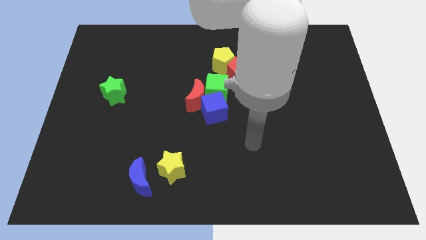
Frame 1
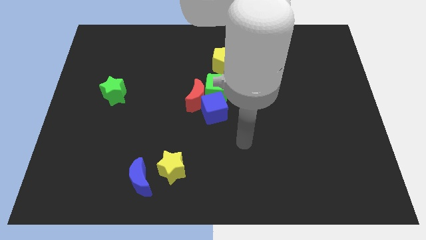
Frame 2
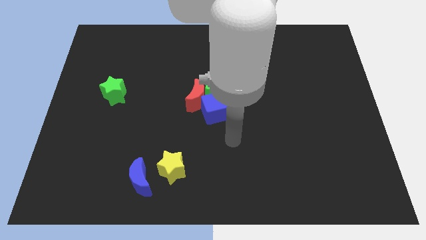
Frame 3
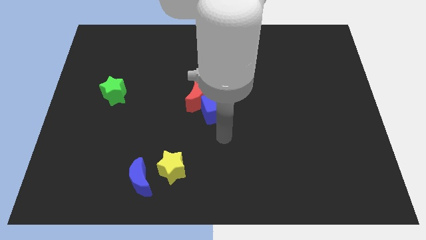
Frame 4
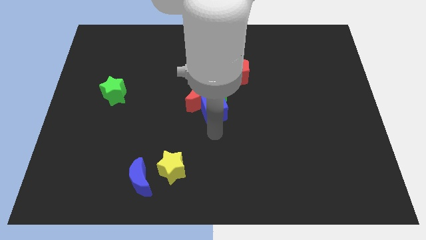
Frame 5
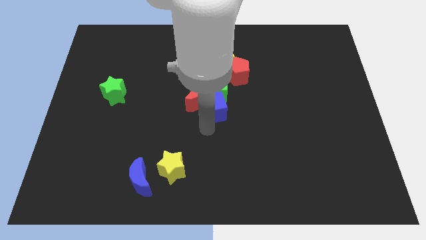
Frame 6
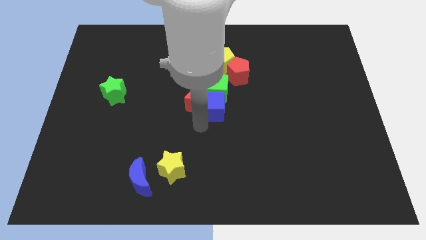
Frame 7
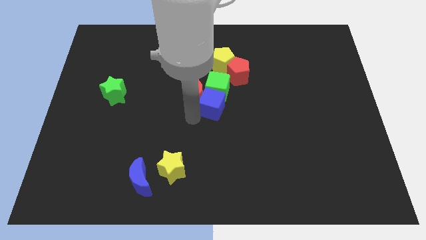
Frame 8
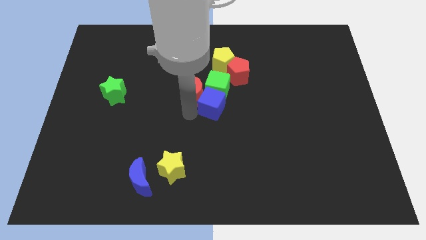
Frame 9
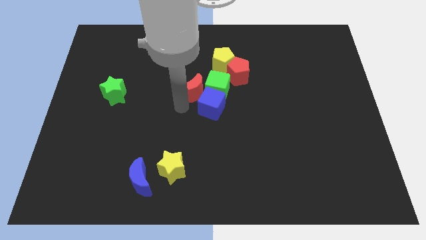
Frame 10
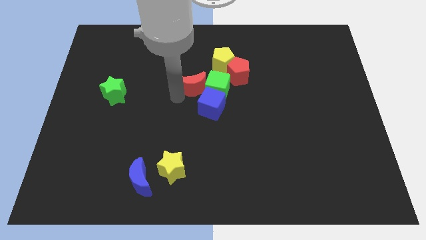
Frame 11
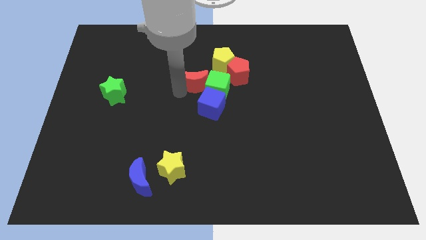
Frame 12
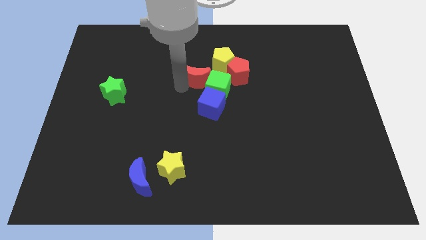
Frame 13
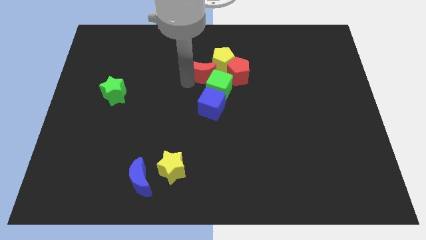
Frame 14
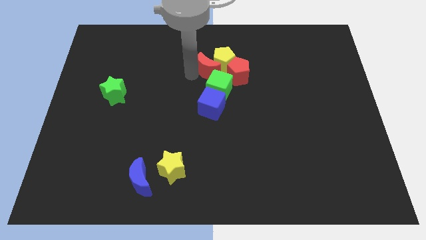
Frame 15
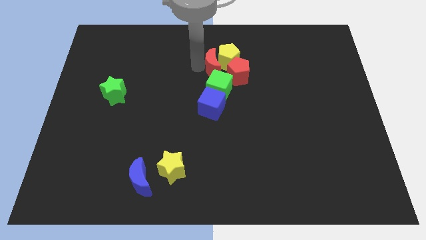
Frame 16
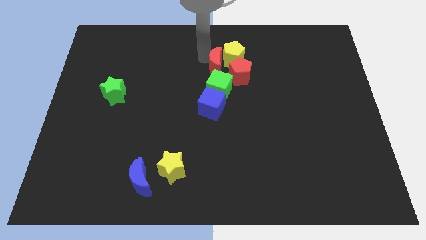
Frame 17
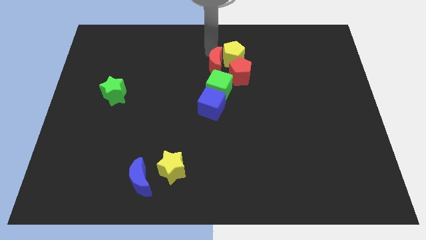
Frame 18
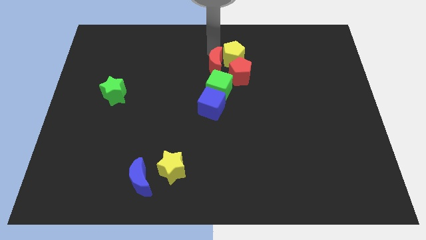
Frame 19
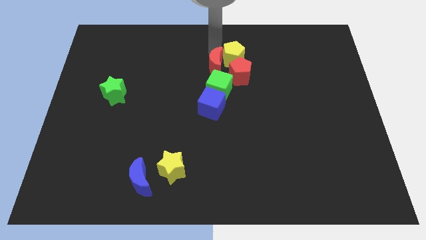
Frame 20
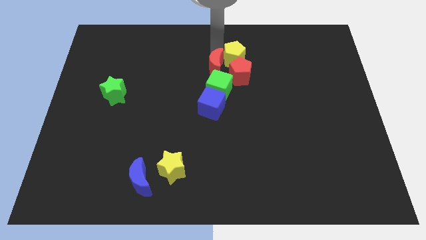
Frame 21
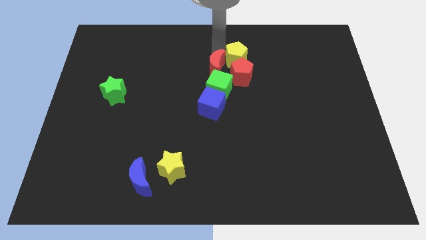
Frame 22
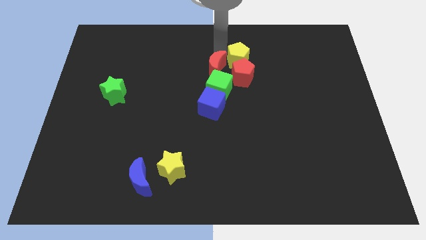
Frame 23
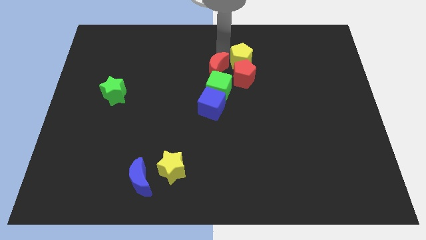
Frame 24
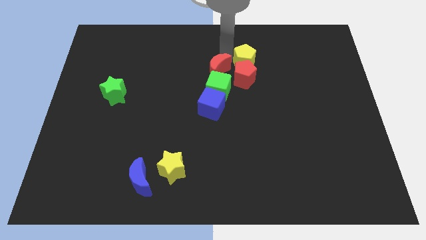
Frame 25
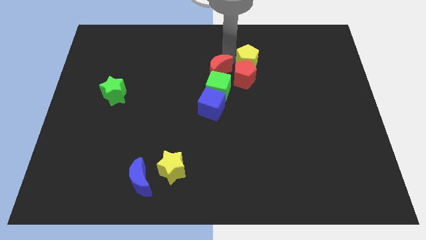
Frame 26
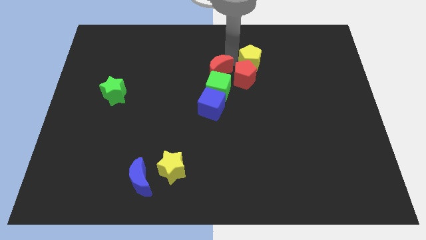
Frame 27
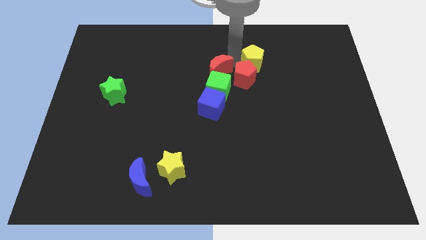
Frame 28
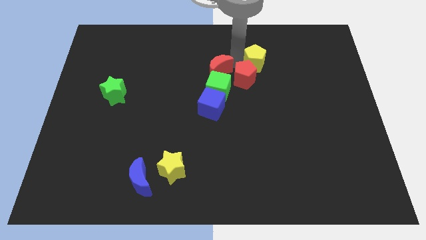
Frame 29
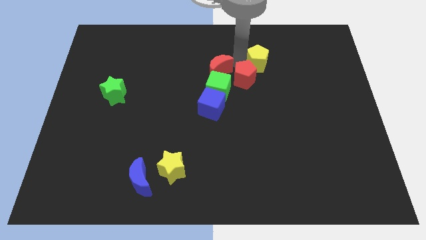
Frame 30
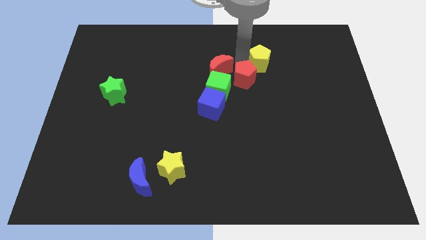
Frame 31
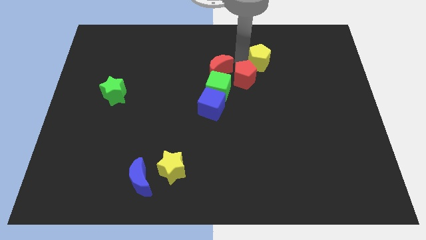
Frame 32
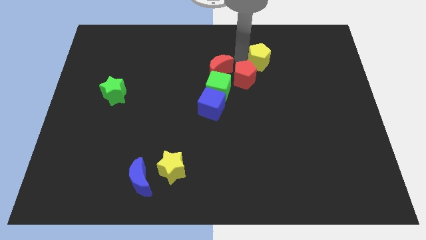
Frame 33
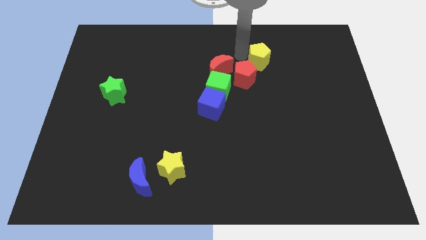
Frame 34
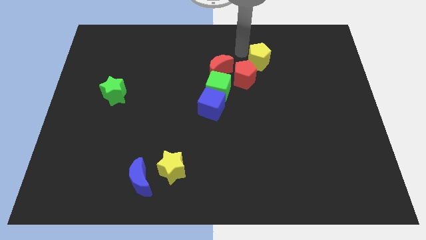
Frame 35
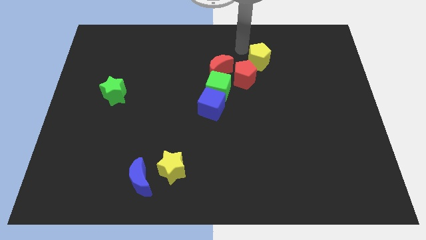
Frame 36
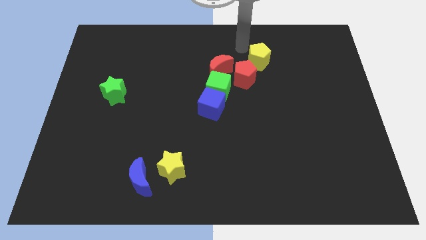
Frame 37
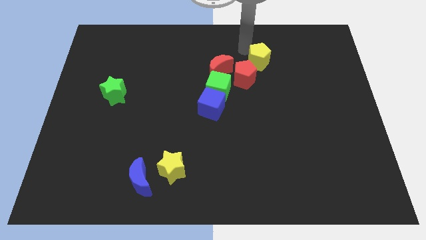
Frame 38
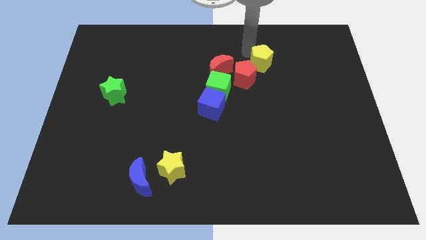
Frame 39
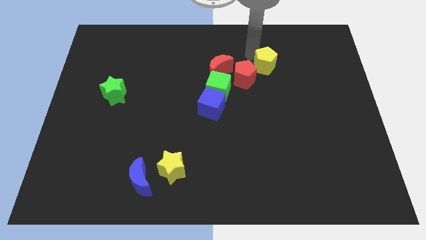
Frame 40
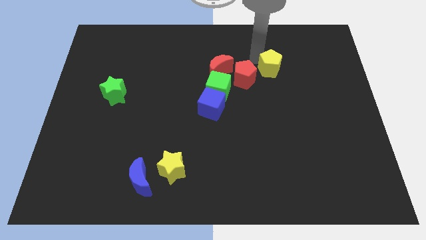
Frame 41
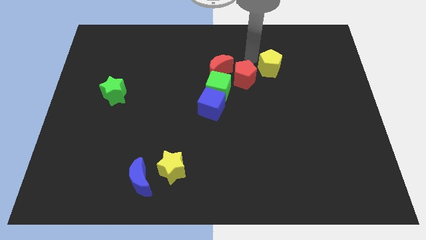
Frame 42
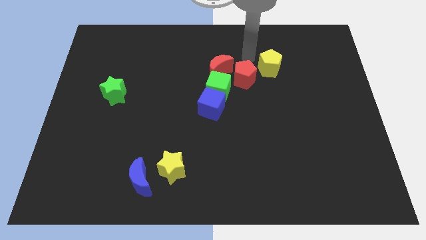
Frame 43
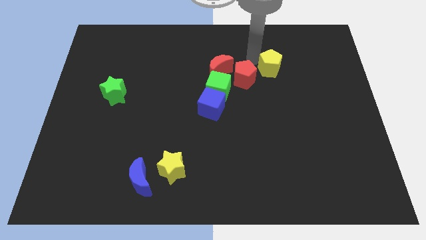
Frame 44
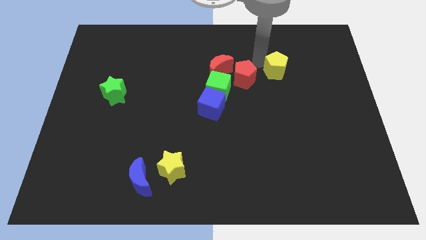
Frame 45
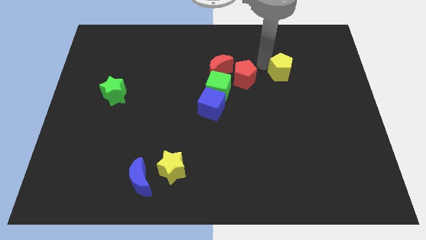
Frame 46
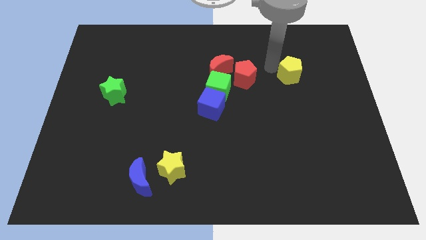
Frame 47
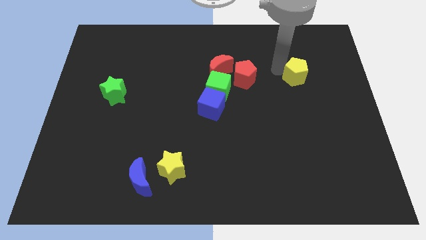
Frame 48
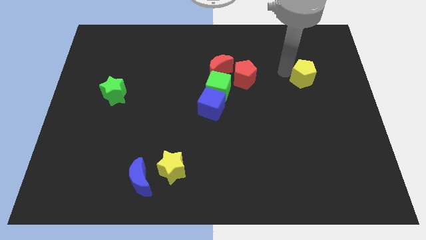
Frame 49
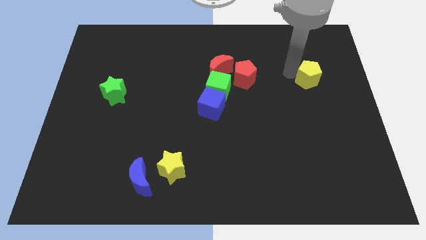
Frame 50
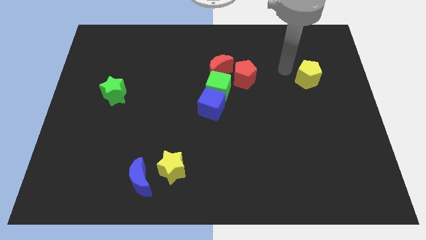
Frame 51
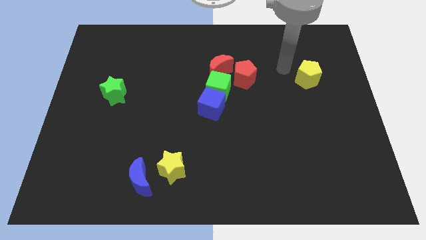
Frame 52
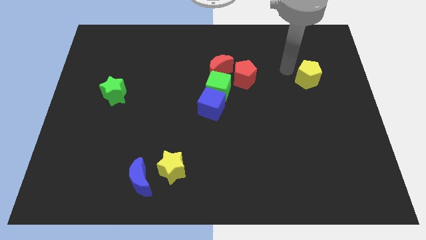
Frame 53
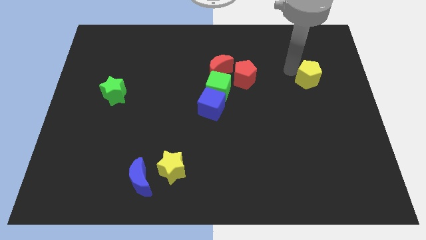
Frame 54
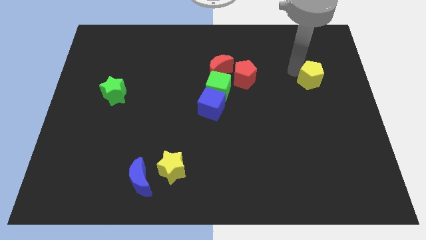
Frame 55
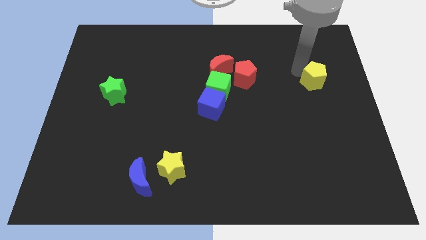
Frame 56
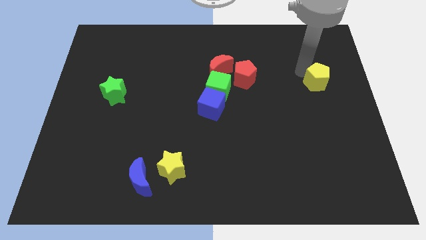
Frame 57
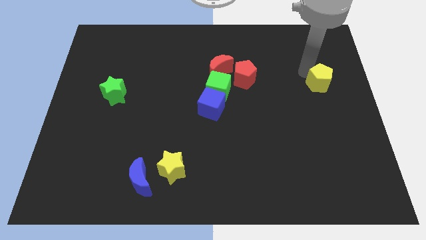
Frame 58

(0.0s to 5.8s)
slide the yellow pentagon to the right side

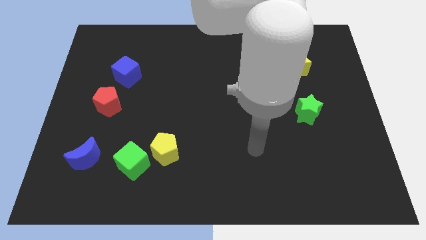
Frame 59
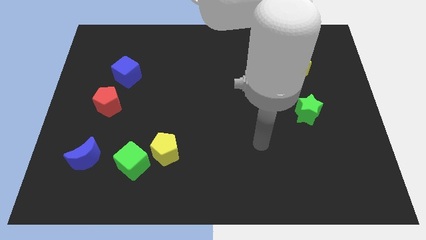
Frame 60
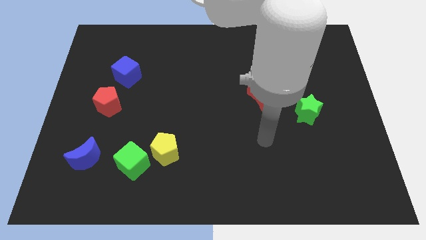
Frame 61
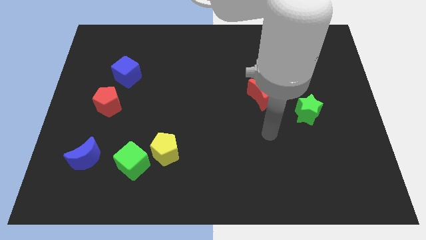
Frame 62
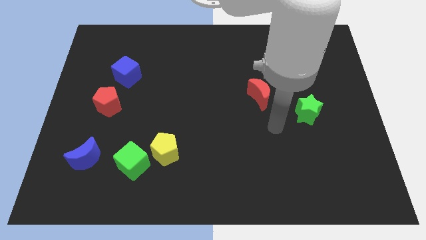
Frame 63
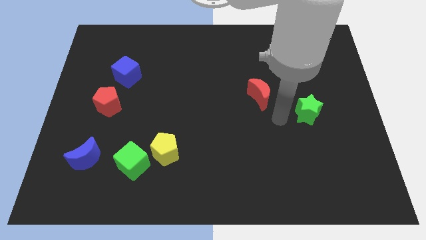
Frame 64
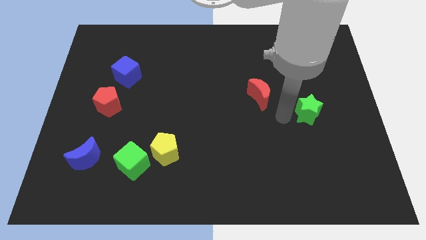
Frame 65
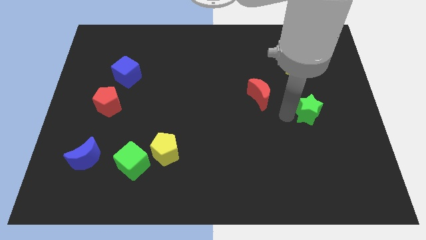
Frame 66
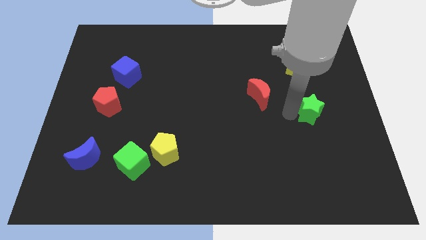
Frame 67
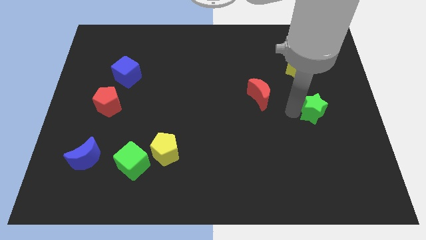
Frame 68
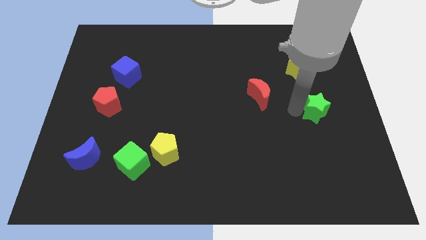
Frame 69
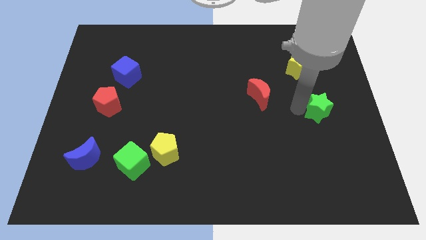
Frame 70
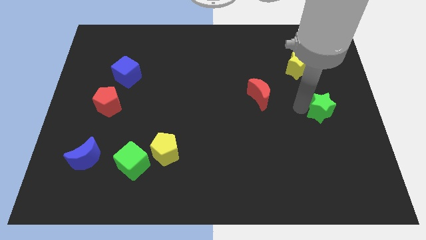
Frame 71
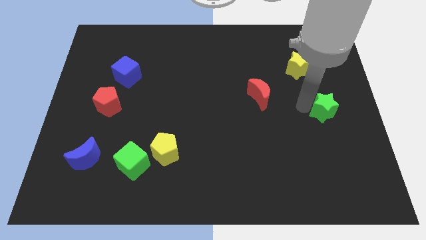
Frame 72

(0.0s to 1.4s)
push the green star to the right side
